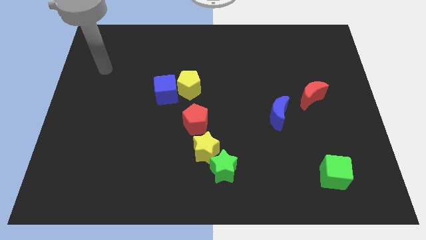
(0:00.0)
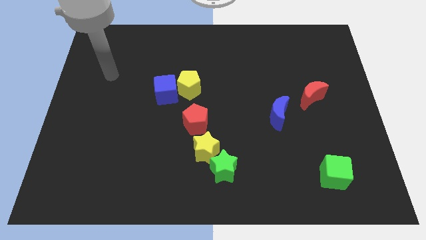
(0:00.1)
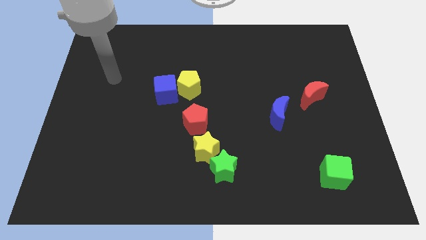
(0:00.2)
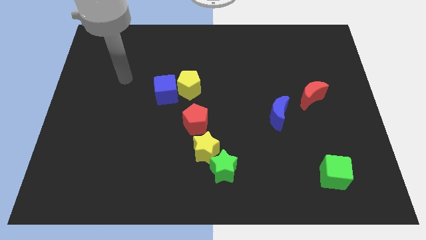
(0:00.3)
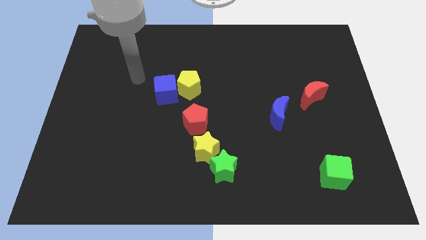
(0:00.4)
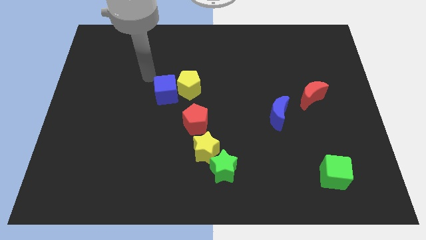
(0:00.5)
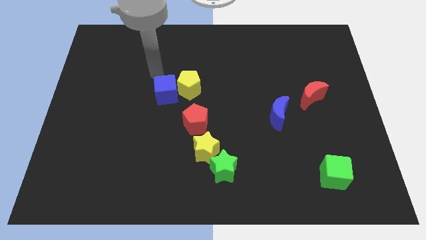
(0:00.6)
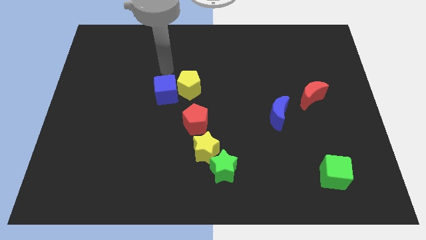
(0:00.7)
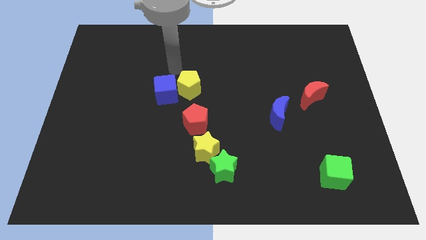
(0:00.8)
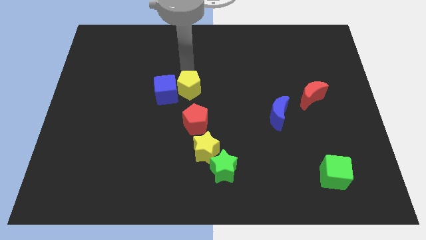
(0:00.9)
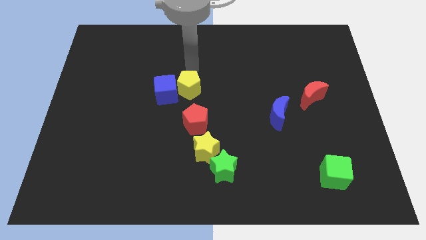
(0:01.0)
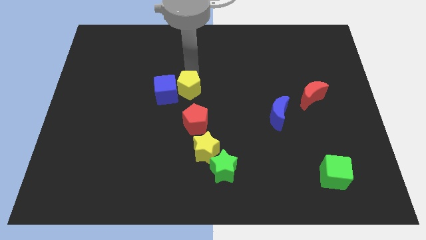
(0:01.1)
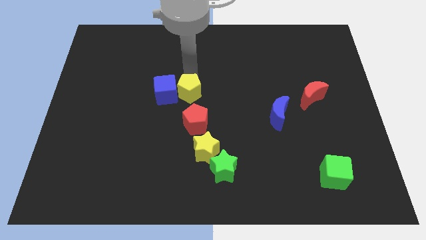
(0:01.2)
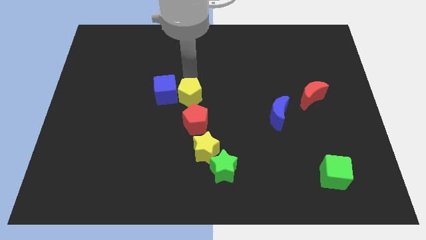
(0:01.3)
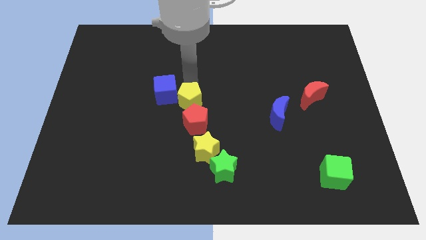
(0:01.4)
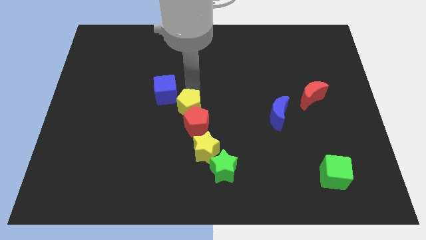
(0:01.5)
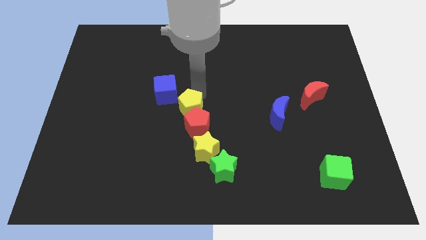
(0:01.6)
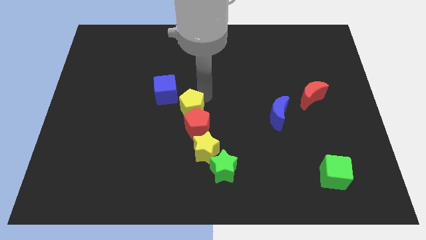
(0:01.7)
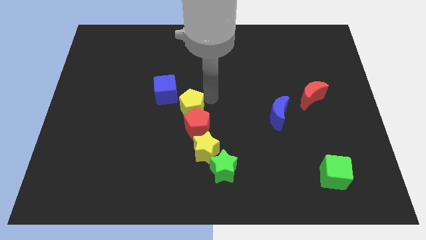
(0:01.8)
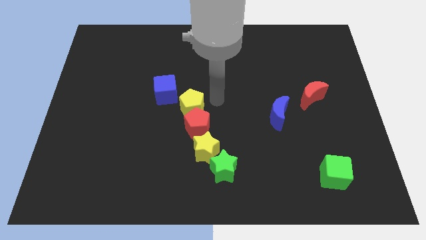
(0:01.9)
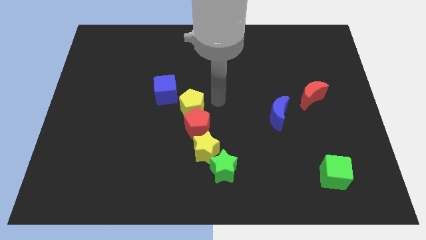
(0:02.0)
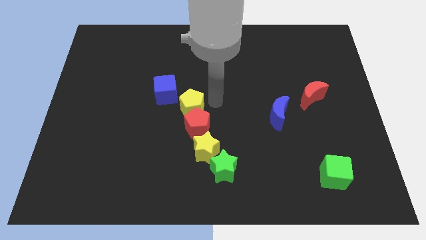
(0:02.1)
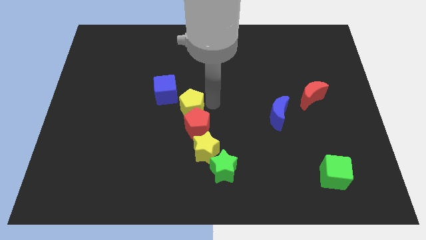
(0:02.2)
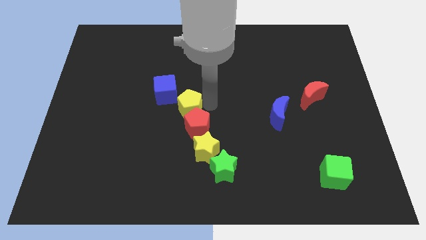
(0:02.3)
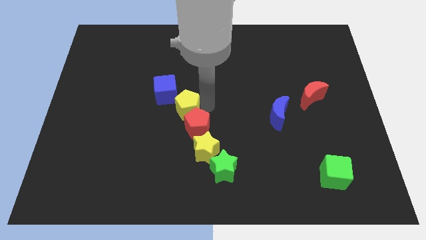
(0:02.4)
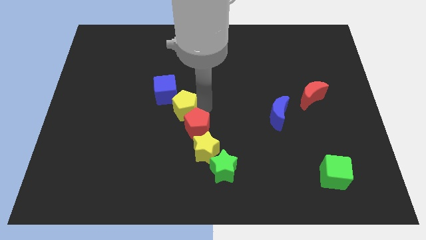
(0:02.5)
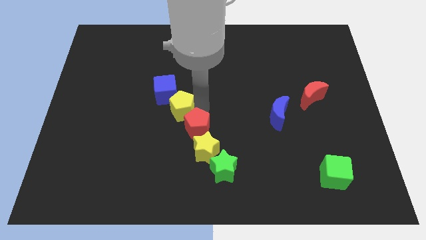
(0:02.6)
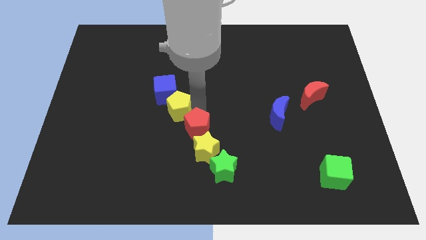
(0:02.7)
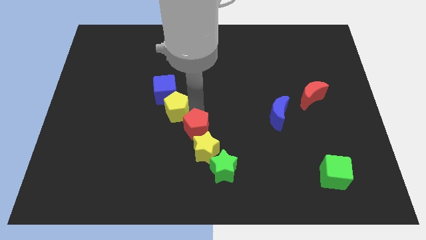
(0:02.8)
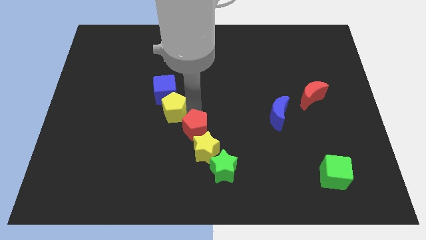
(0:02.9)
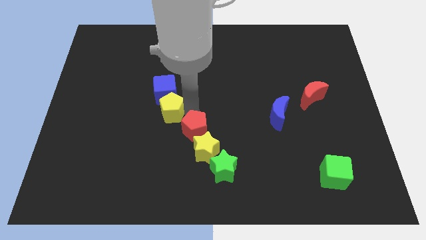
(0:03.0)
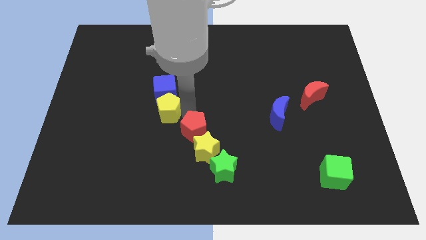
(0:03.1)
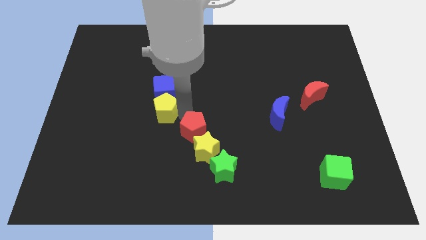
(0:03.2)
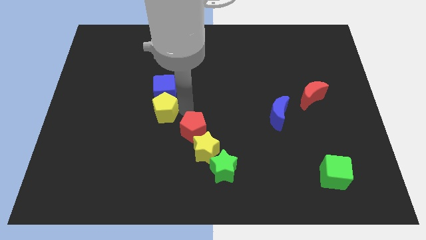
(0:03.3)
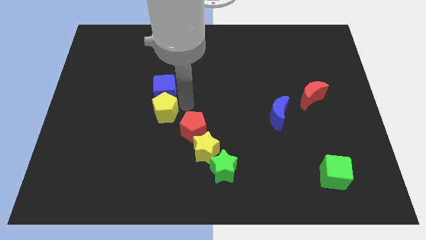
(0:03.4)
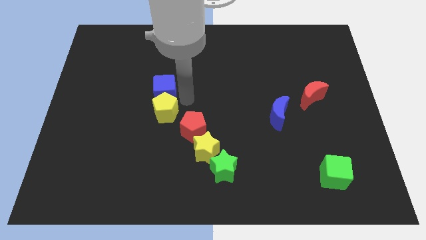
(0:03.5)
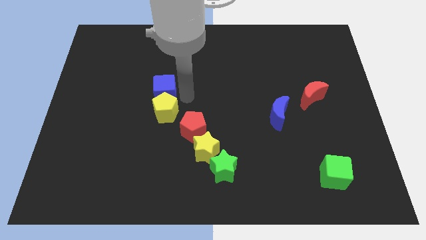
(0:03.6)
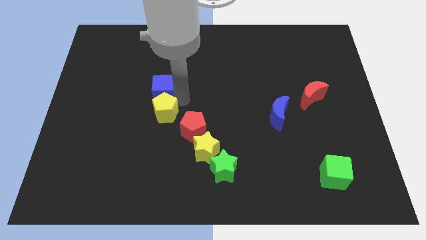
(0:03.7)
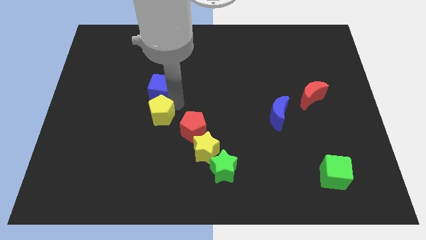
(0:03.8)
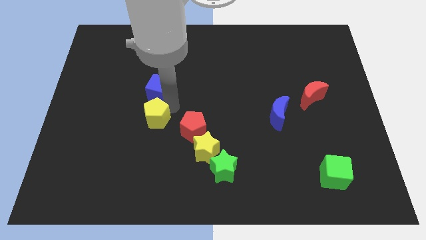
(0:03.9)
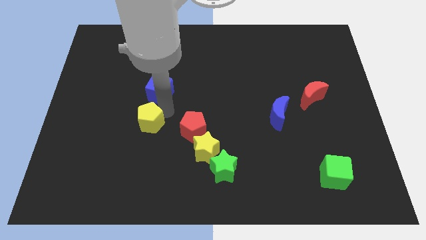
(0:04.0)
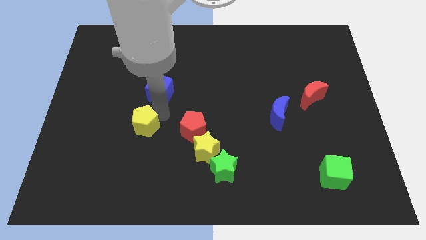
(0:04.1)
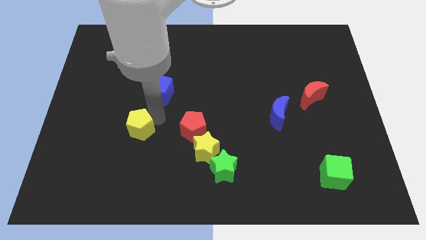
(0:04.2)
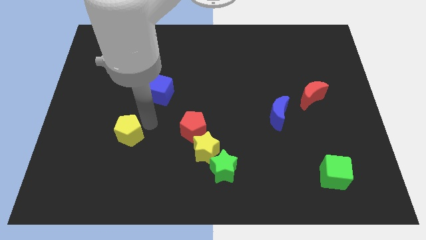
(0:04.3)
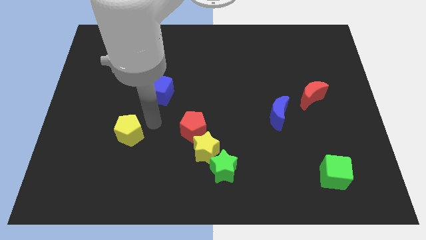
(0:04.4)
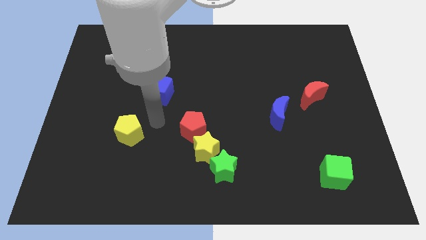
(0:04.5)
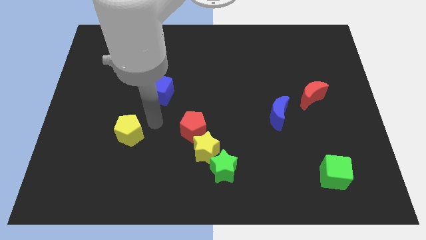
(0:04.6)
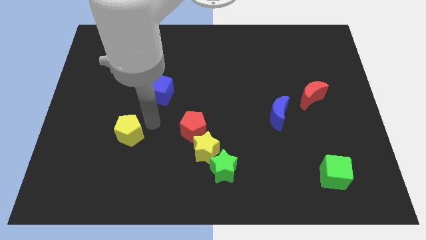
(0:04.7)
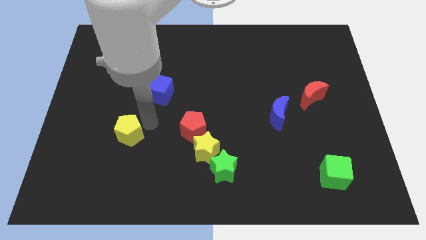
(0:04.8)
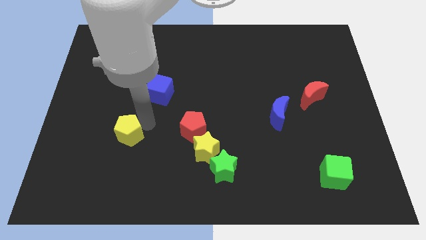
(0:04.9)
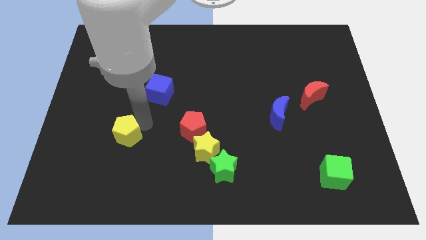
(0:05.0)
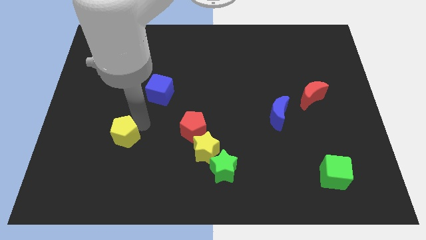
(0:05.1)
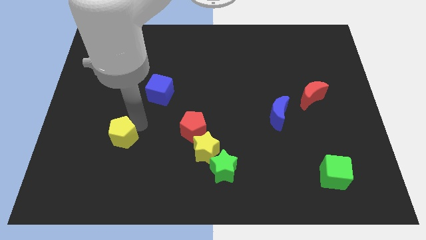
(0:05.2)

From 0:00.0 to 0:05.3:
slide the yellow pentagon down and left diagonally

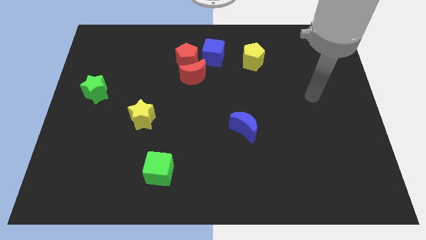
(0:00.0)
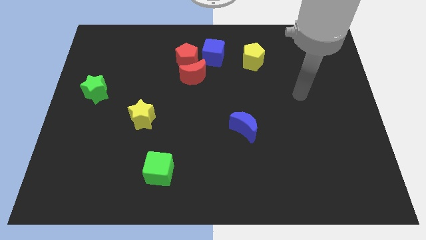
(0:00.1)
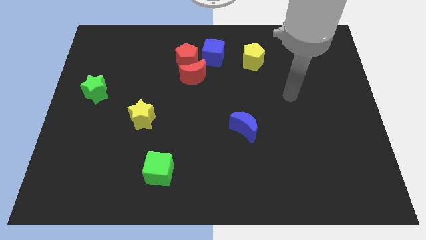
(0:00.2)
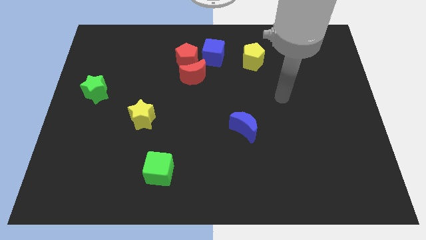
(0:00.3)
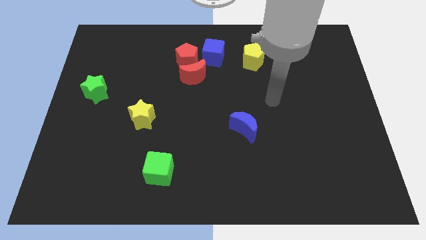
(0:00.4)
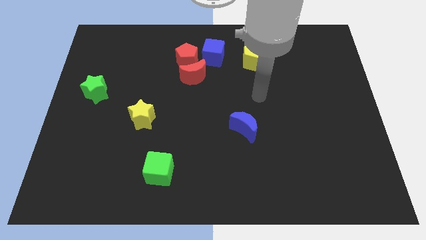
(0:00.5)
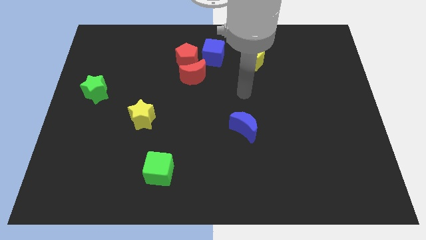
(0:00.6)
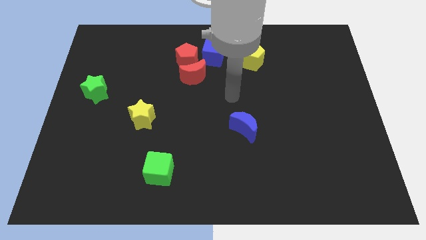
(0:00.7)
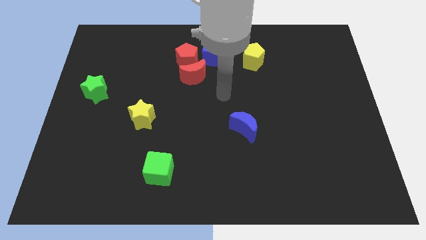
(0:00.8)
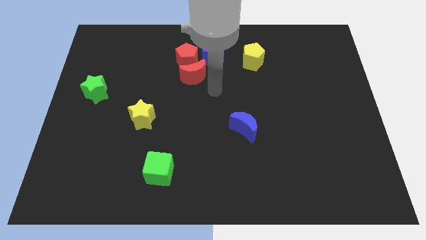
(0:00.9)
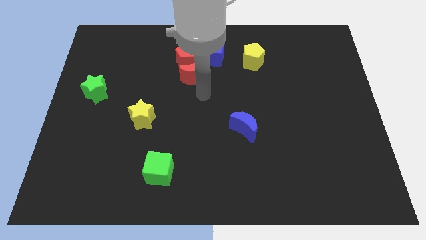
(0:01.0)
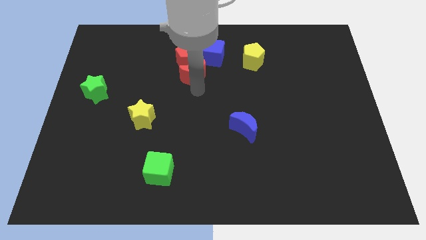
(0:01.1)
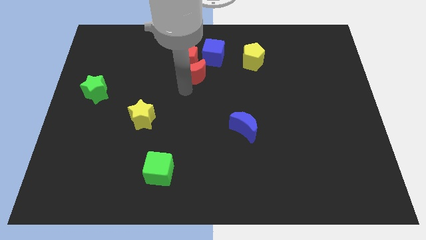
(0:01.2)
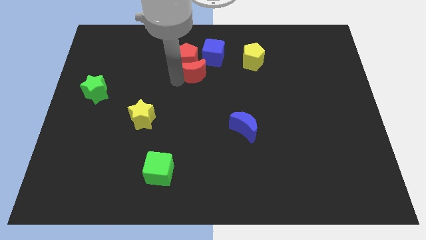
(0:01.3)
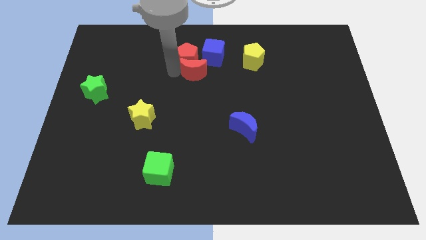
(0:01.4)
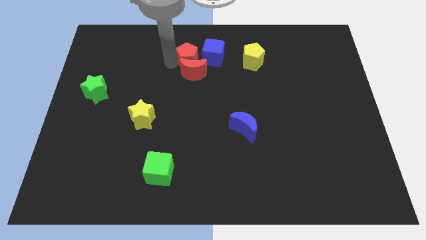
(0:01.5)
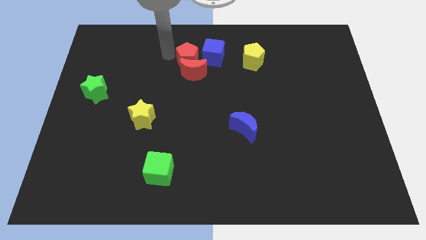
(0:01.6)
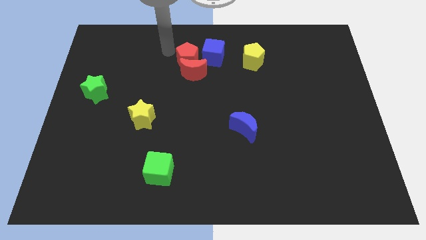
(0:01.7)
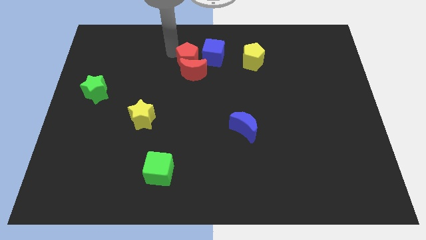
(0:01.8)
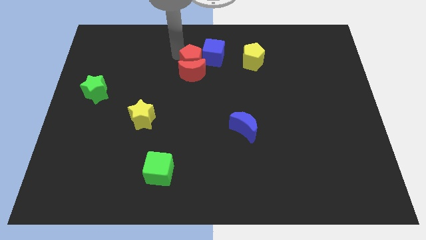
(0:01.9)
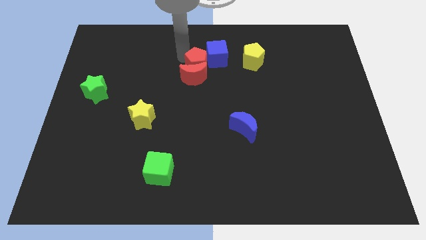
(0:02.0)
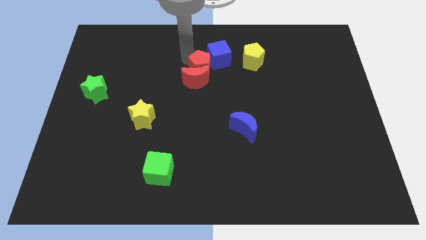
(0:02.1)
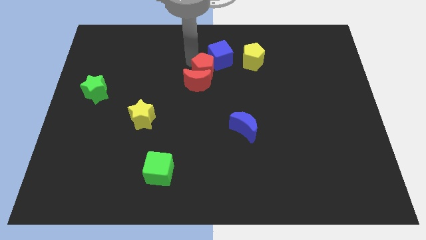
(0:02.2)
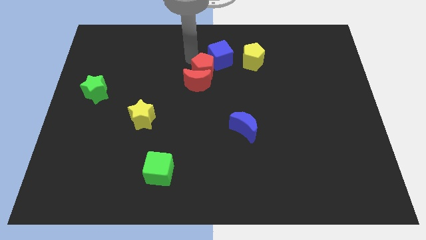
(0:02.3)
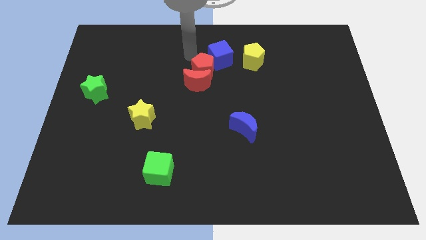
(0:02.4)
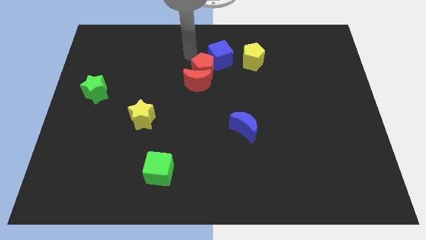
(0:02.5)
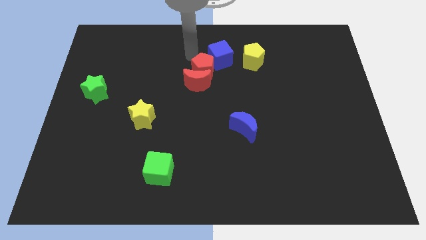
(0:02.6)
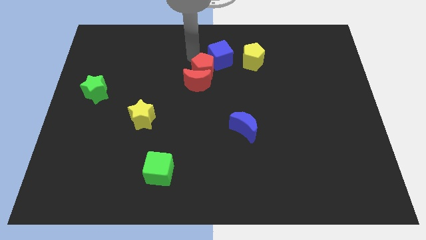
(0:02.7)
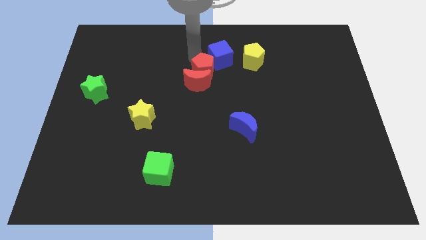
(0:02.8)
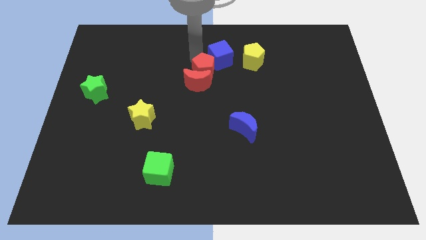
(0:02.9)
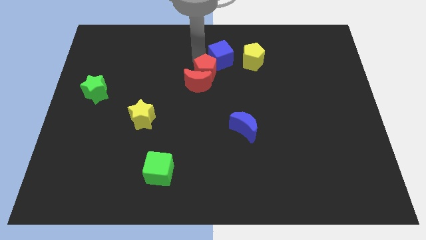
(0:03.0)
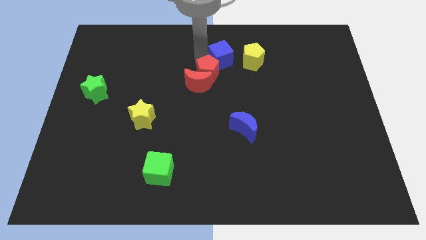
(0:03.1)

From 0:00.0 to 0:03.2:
push the red pentagon a little down and then right
